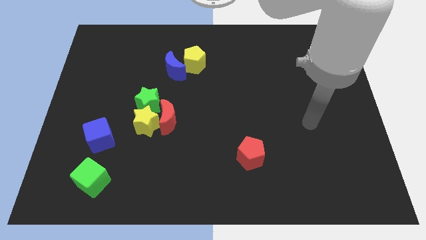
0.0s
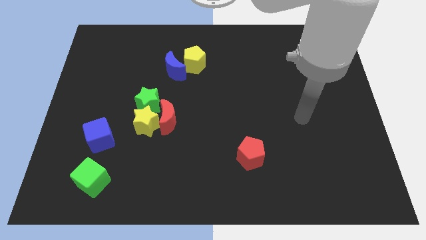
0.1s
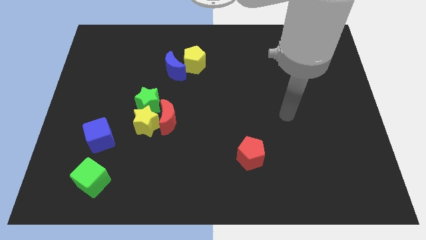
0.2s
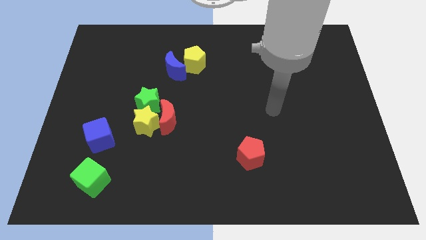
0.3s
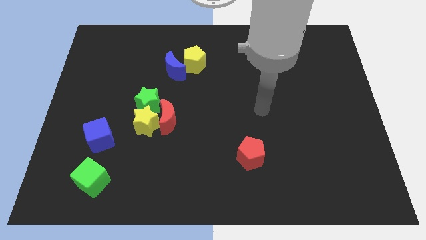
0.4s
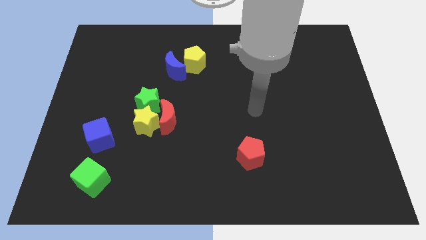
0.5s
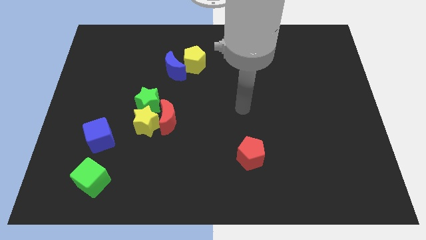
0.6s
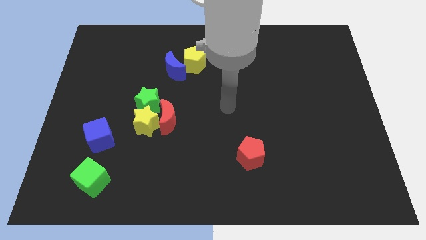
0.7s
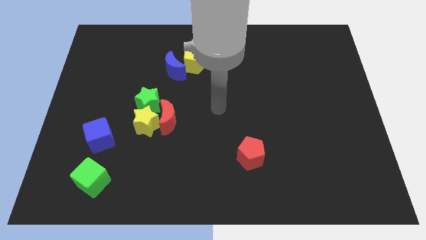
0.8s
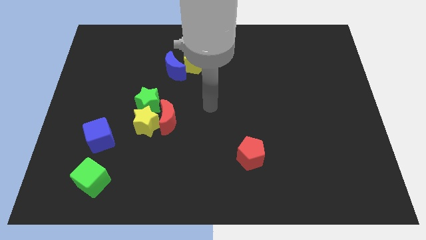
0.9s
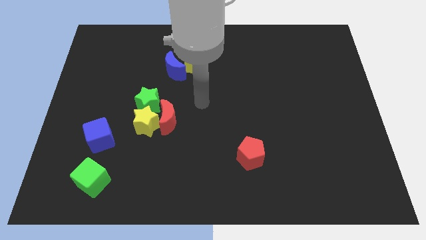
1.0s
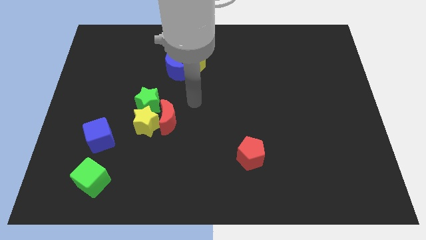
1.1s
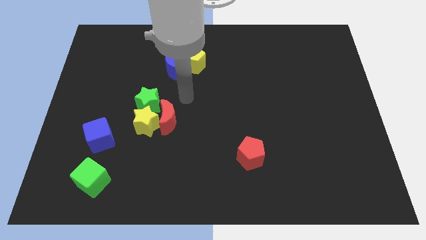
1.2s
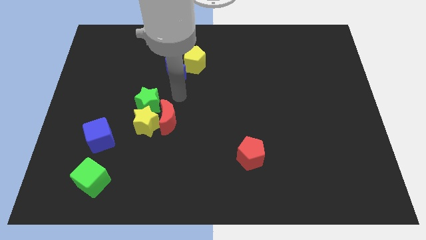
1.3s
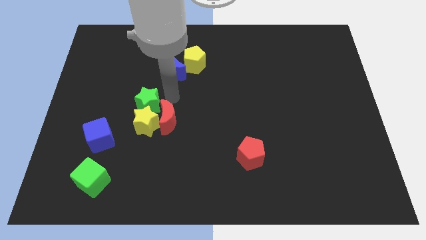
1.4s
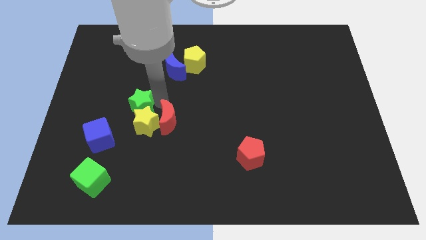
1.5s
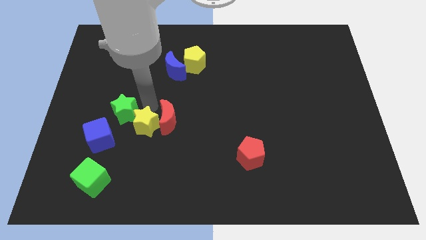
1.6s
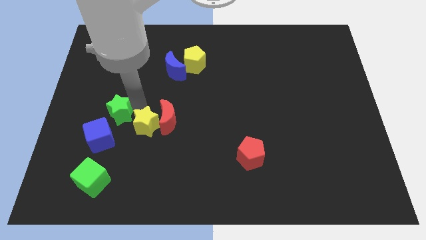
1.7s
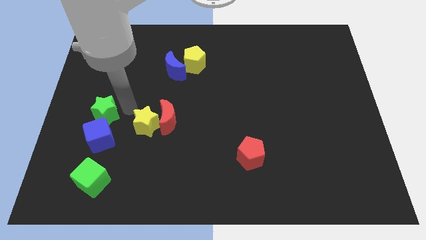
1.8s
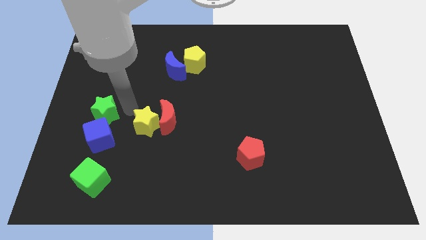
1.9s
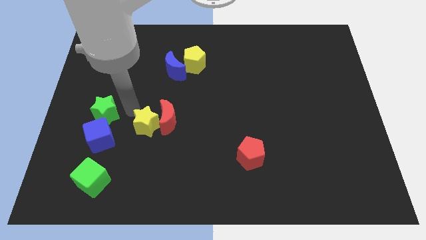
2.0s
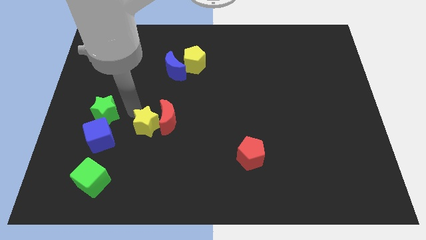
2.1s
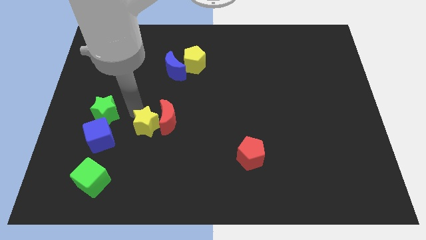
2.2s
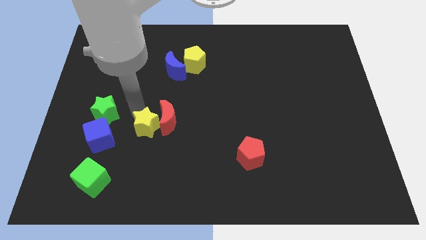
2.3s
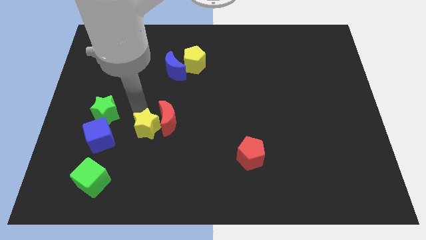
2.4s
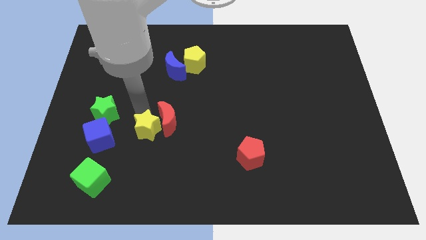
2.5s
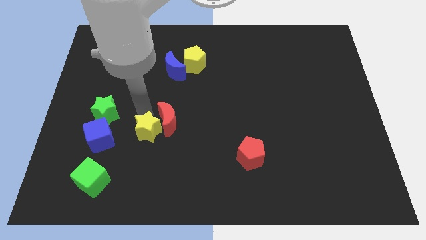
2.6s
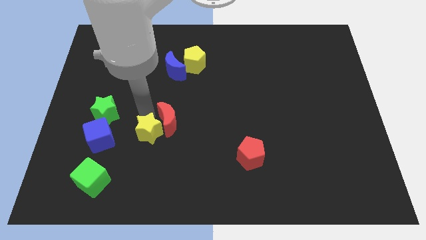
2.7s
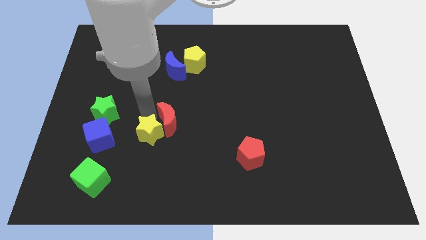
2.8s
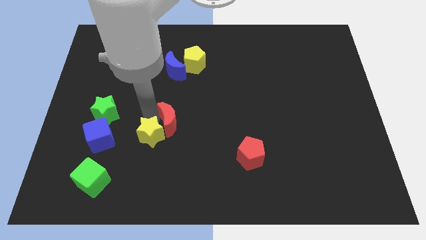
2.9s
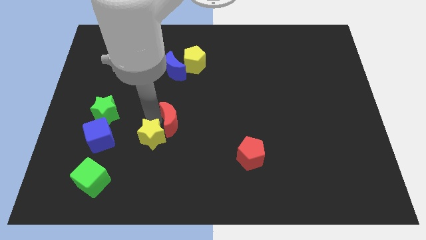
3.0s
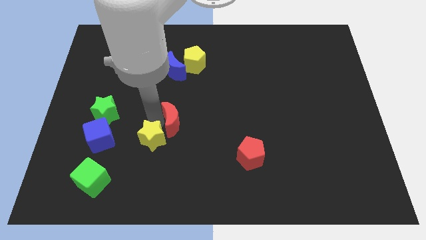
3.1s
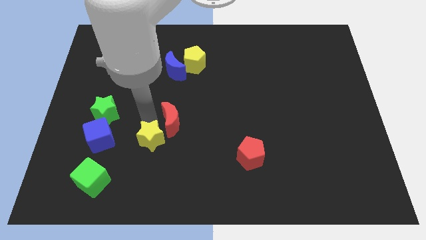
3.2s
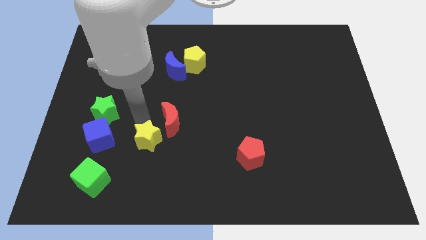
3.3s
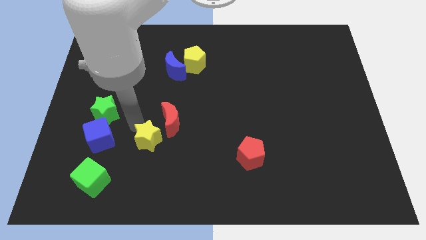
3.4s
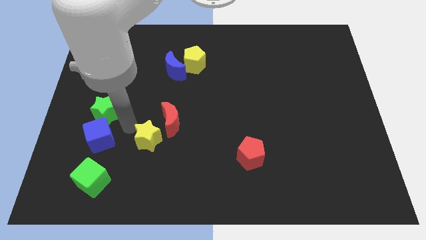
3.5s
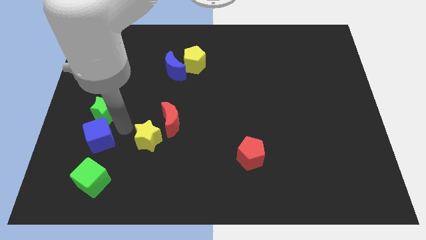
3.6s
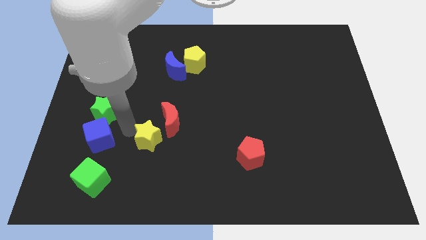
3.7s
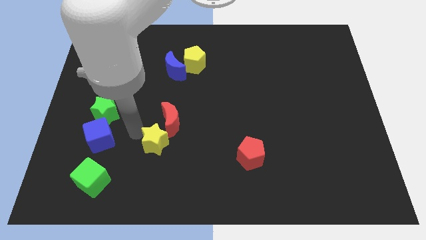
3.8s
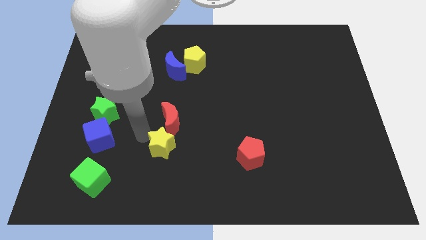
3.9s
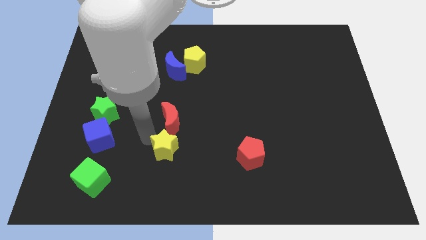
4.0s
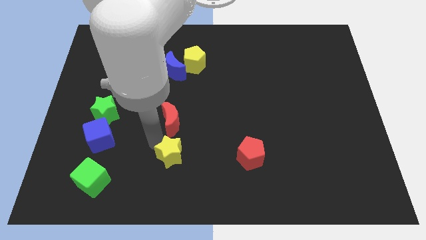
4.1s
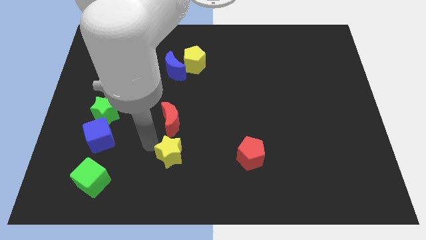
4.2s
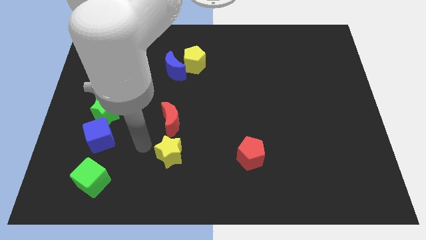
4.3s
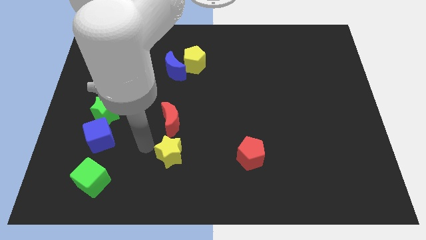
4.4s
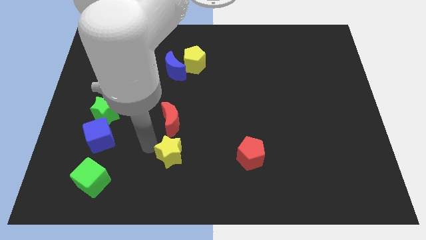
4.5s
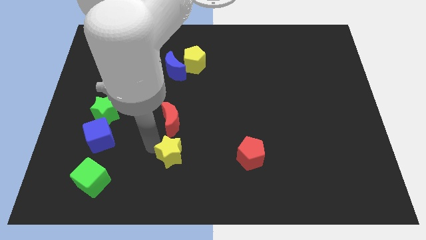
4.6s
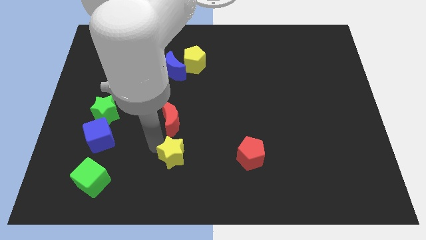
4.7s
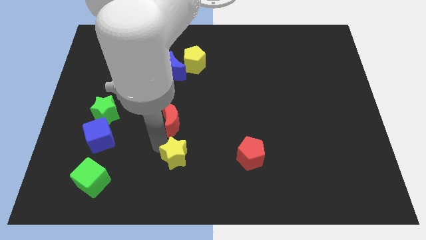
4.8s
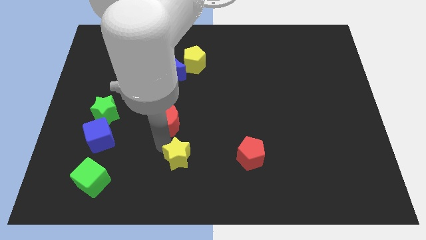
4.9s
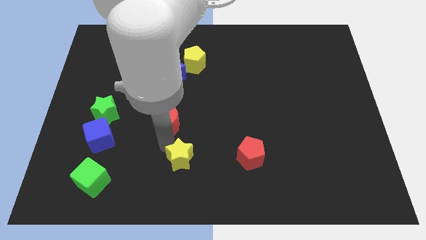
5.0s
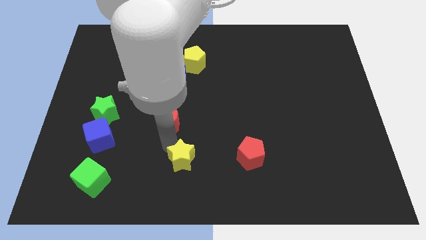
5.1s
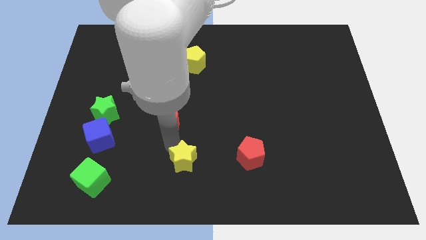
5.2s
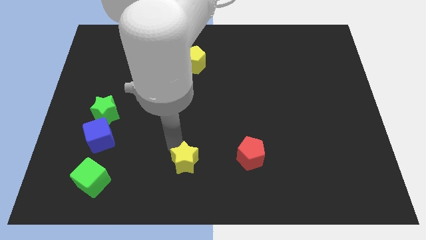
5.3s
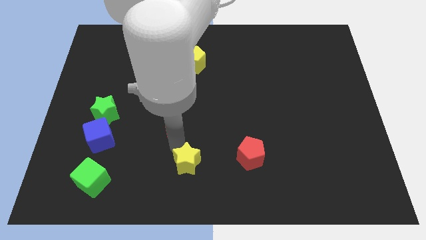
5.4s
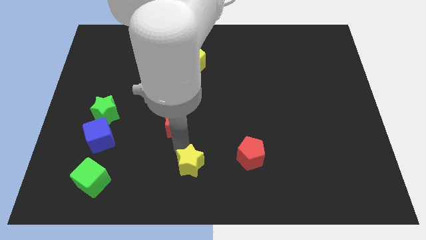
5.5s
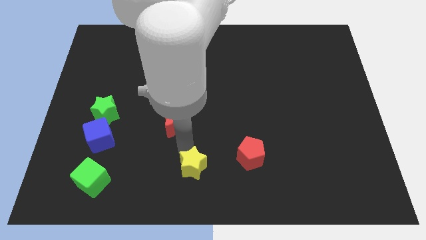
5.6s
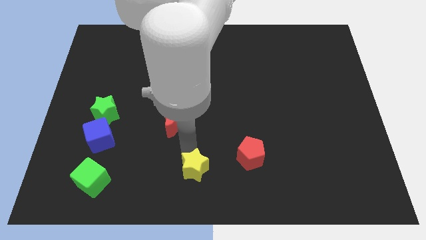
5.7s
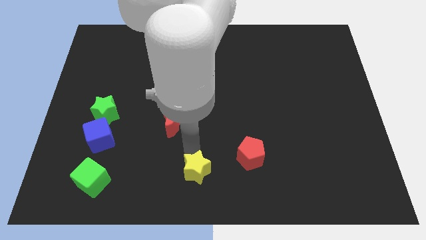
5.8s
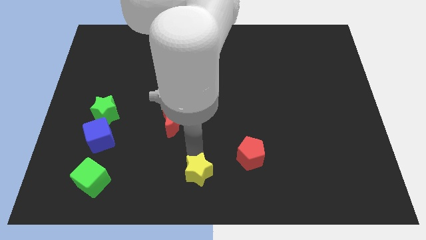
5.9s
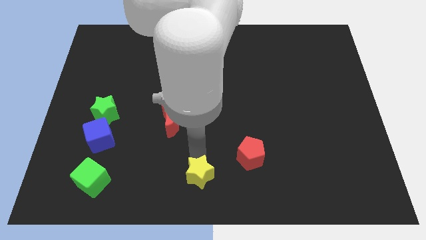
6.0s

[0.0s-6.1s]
put the yellow star to the bottom left side of the red pentagon
